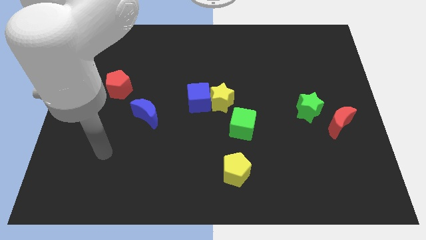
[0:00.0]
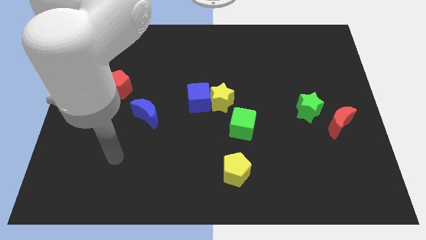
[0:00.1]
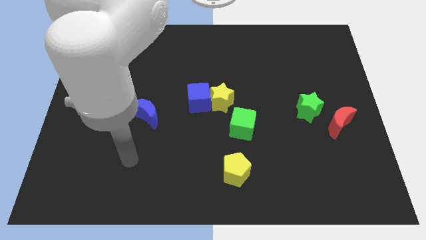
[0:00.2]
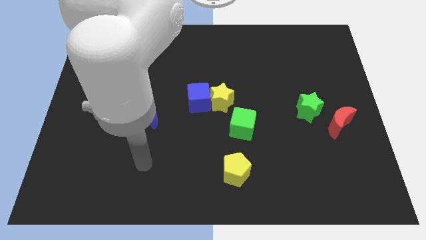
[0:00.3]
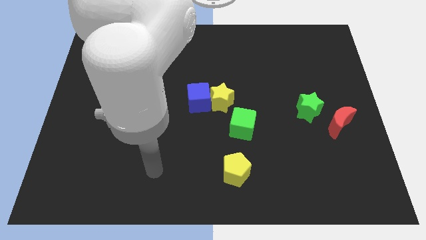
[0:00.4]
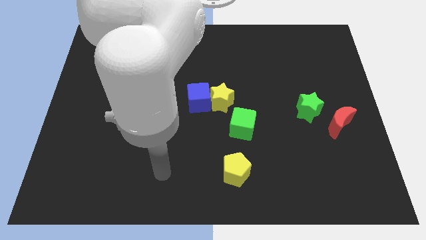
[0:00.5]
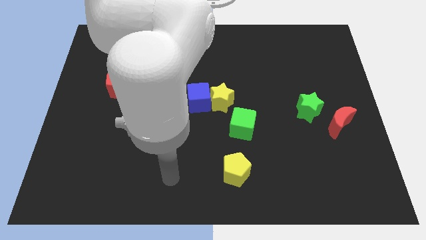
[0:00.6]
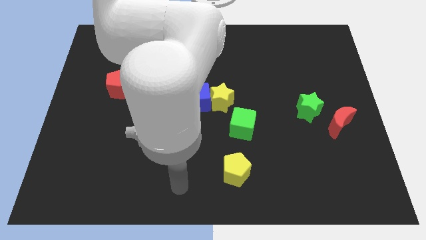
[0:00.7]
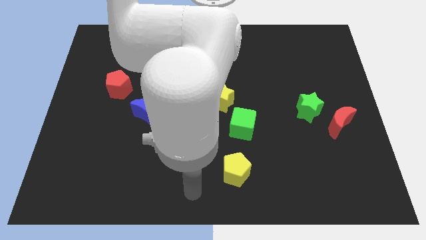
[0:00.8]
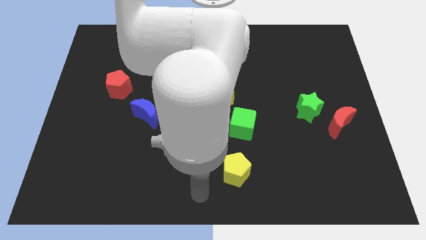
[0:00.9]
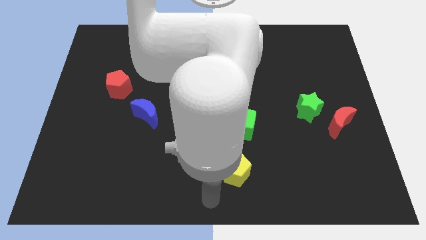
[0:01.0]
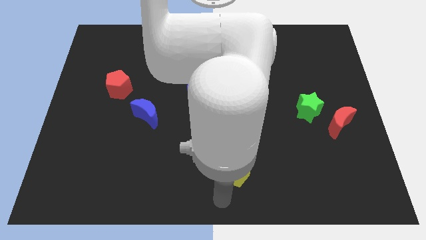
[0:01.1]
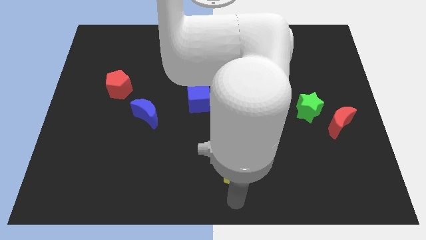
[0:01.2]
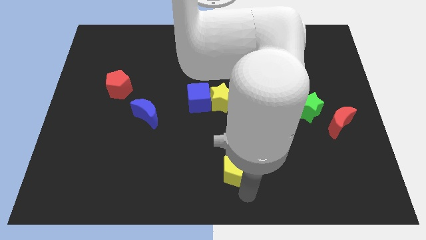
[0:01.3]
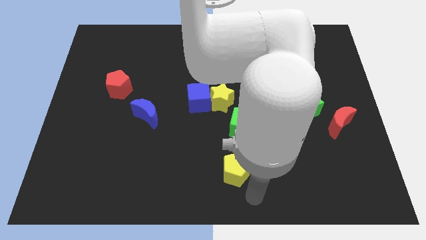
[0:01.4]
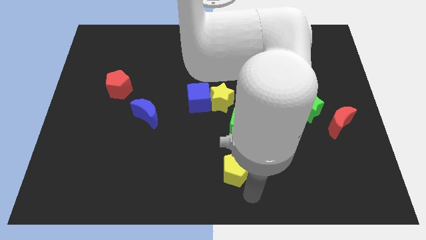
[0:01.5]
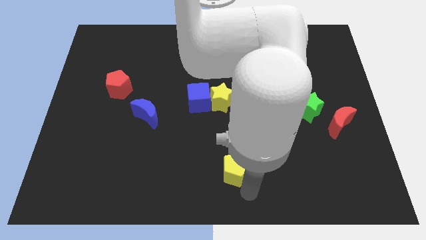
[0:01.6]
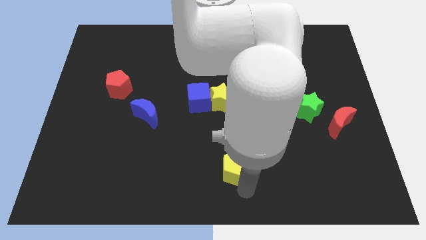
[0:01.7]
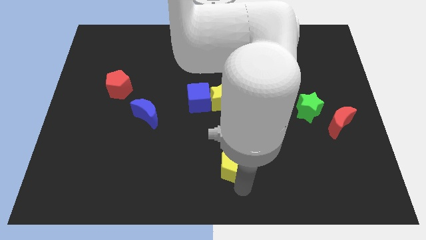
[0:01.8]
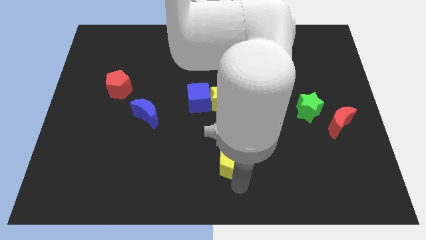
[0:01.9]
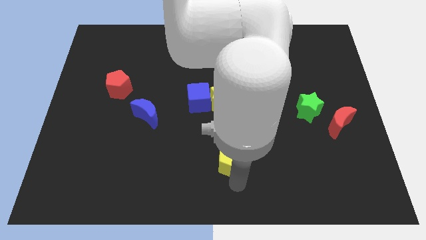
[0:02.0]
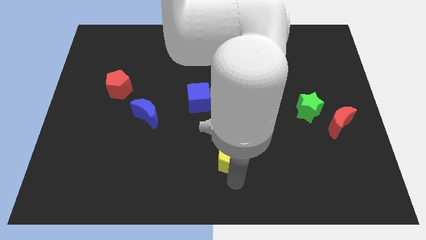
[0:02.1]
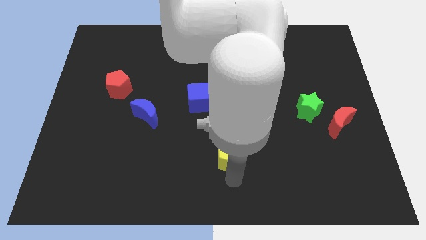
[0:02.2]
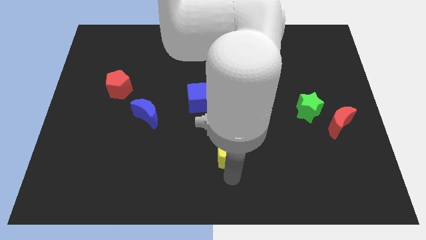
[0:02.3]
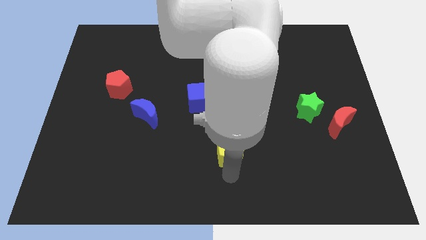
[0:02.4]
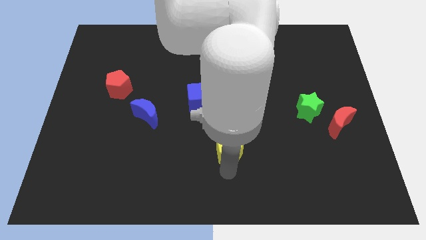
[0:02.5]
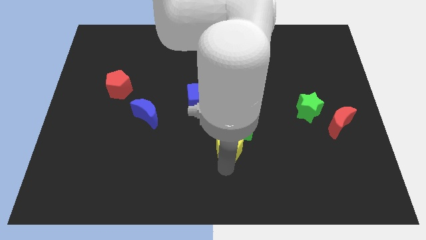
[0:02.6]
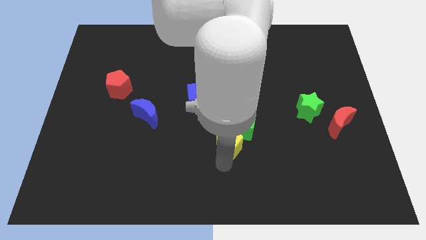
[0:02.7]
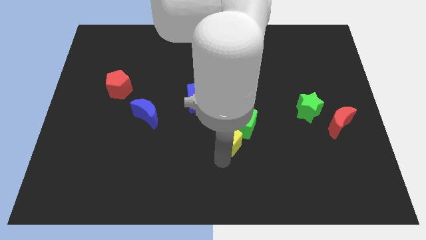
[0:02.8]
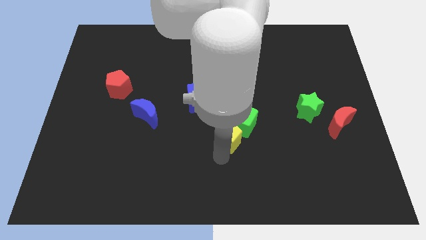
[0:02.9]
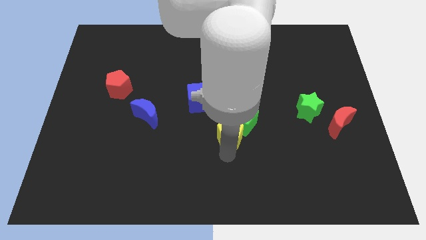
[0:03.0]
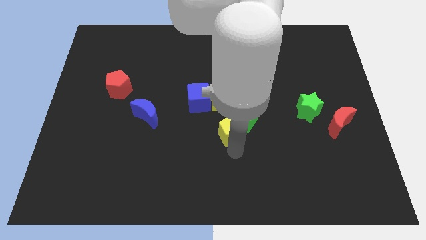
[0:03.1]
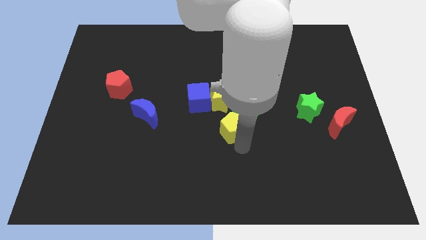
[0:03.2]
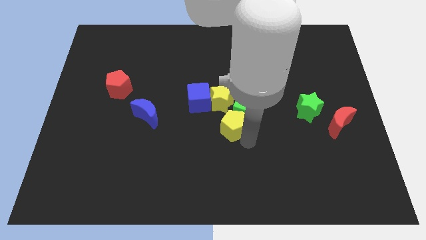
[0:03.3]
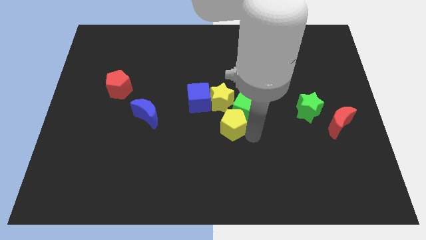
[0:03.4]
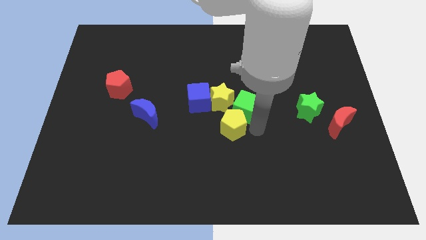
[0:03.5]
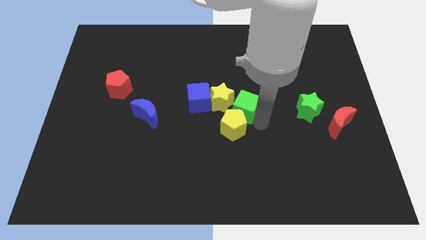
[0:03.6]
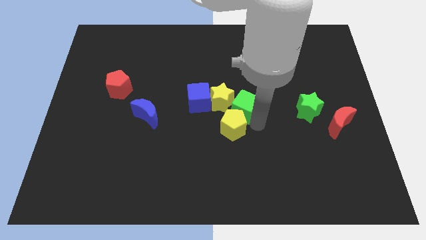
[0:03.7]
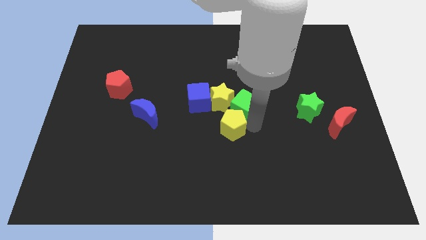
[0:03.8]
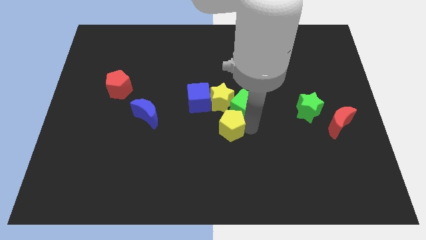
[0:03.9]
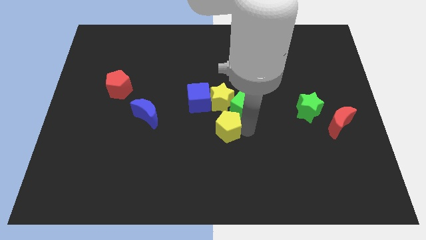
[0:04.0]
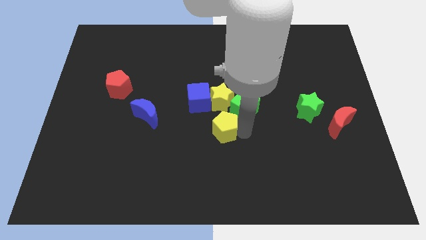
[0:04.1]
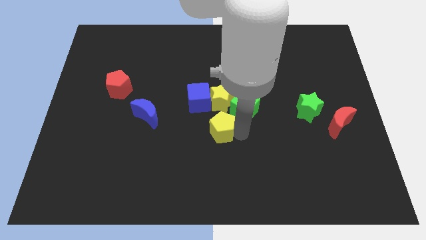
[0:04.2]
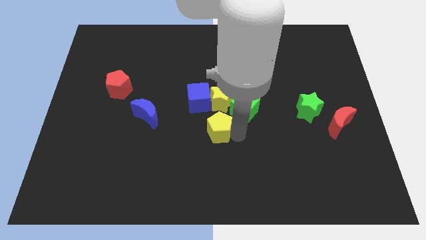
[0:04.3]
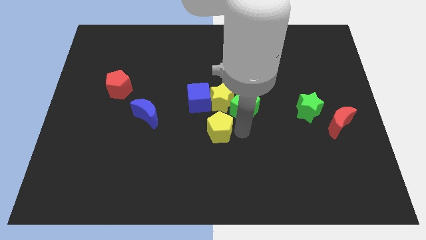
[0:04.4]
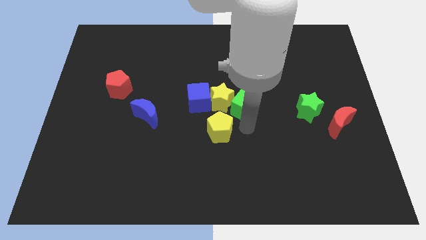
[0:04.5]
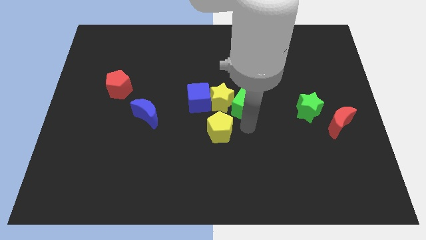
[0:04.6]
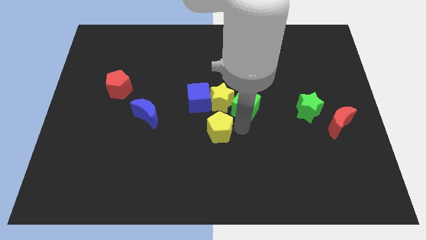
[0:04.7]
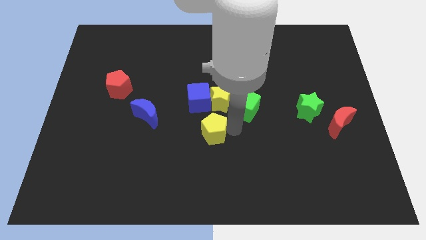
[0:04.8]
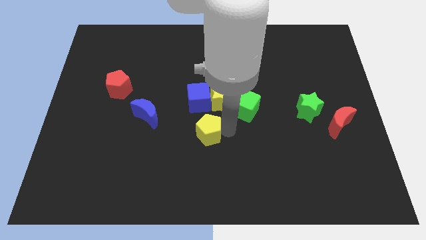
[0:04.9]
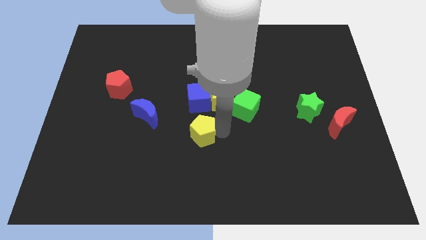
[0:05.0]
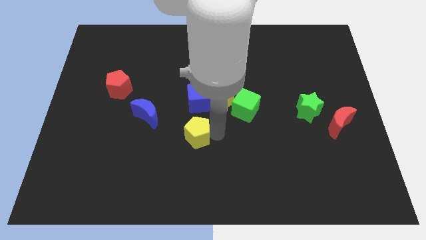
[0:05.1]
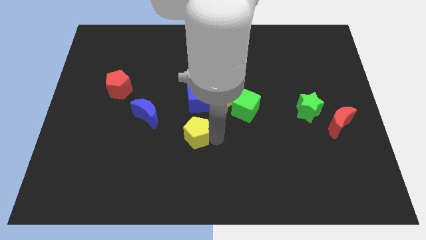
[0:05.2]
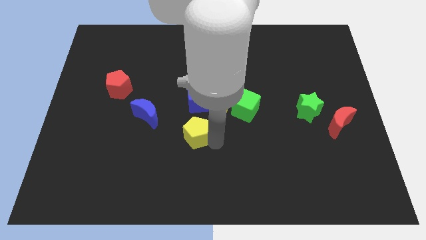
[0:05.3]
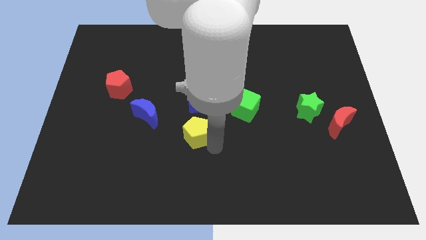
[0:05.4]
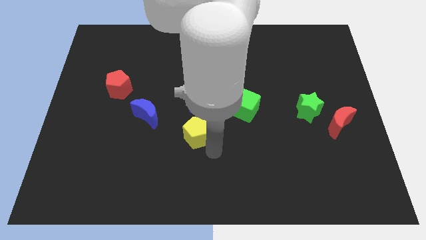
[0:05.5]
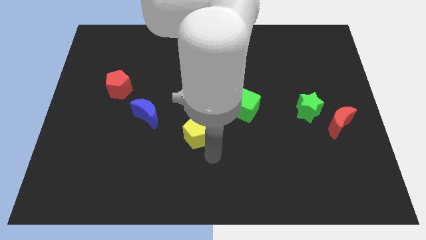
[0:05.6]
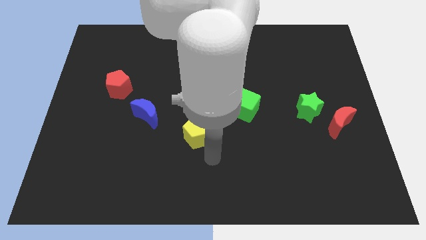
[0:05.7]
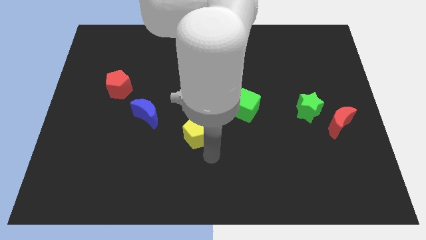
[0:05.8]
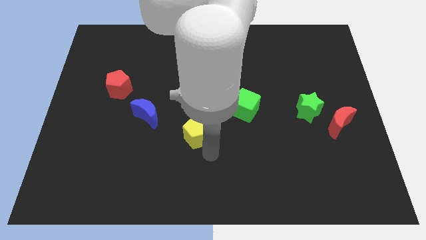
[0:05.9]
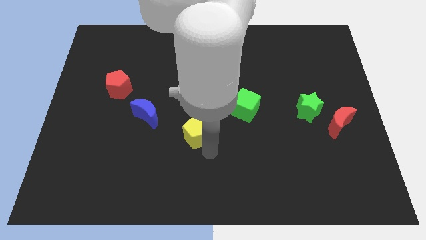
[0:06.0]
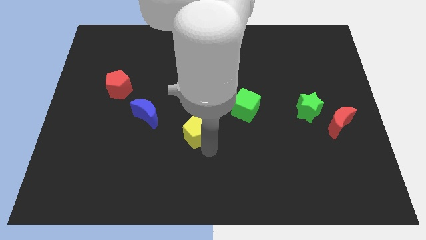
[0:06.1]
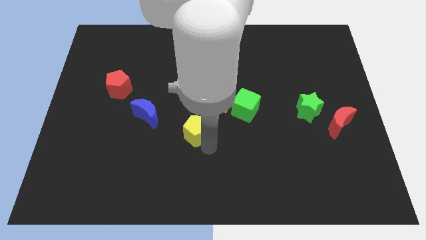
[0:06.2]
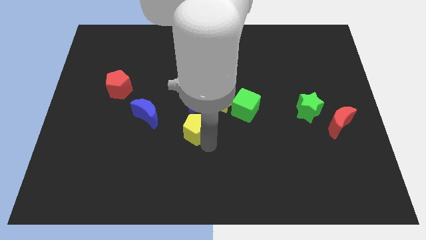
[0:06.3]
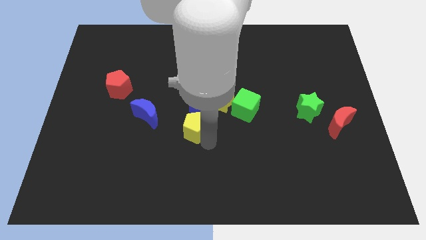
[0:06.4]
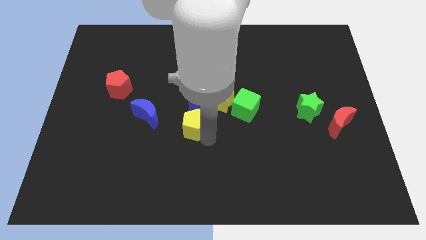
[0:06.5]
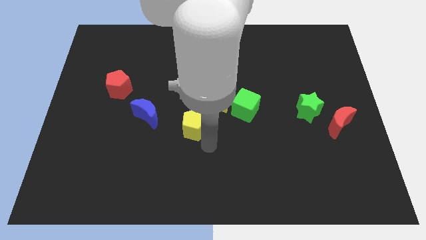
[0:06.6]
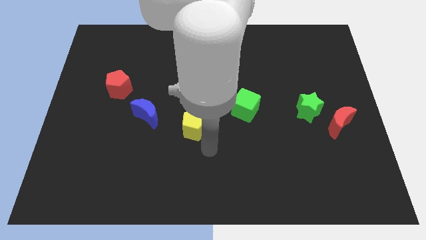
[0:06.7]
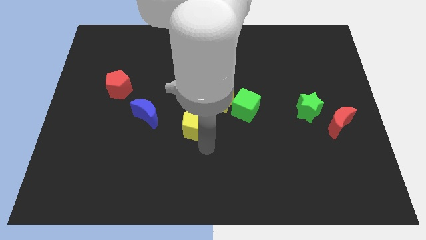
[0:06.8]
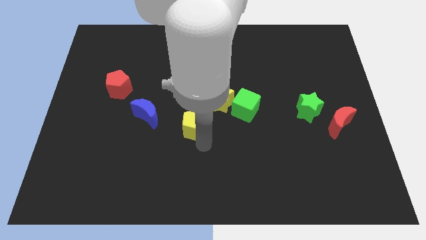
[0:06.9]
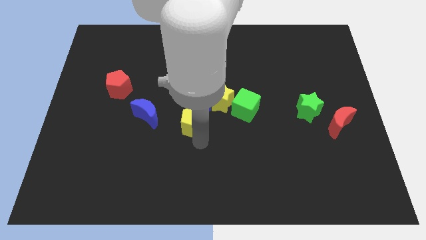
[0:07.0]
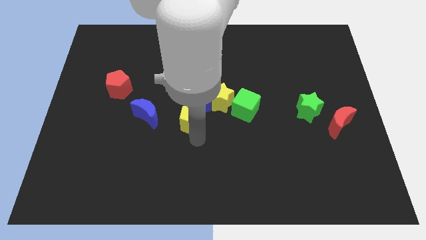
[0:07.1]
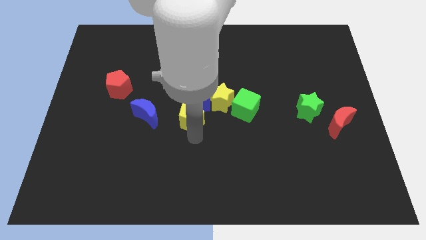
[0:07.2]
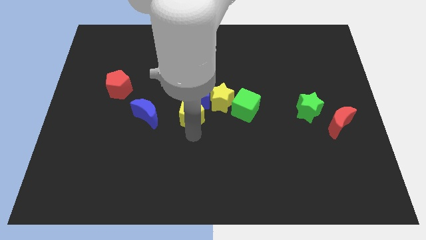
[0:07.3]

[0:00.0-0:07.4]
put the yellow pentagon to the left side of the yellow star

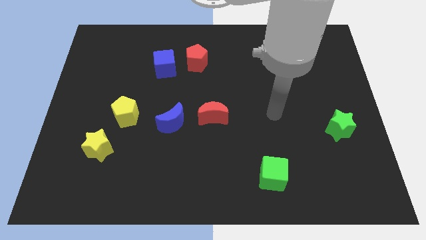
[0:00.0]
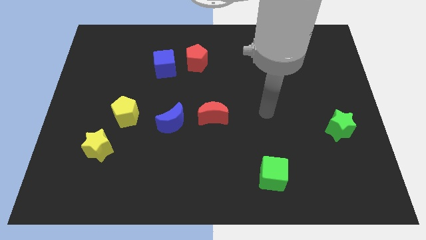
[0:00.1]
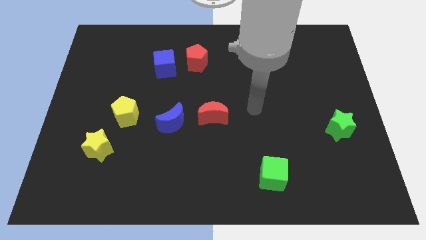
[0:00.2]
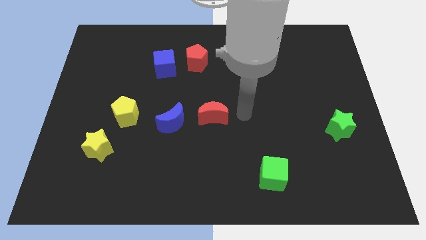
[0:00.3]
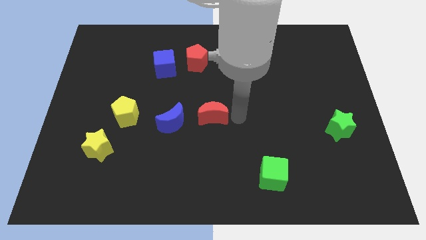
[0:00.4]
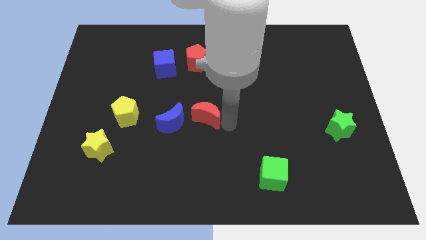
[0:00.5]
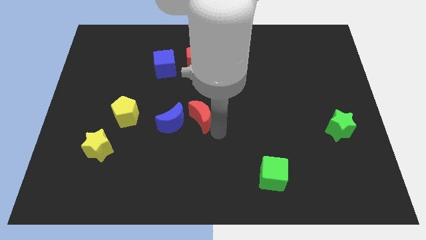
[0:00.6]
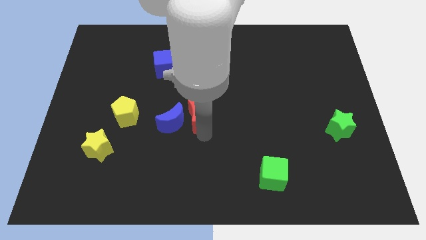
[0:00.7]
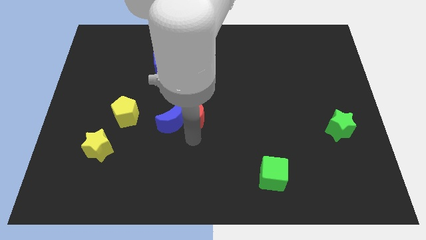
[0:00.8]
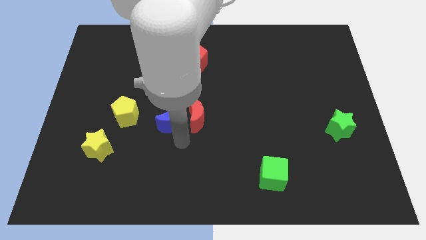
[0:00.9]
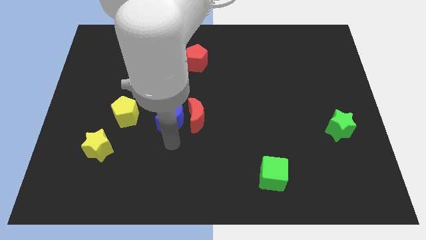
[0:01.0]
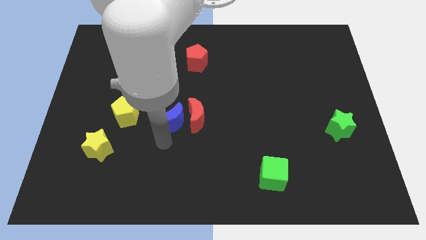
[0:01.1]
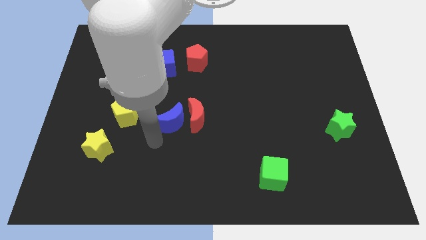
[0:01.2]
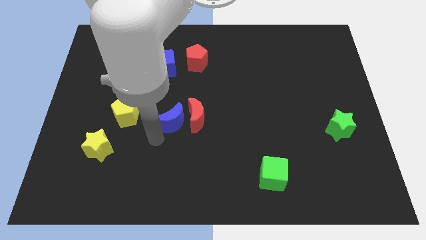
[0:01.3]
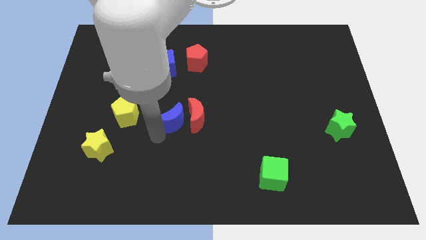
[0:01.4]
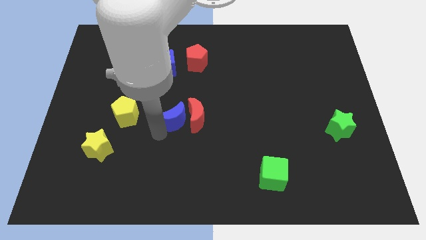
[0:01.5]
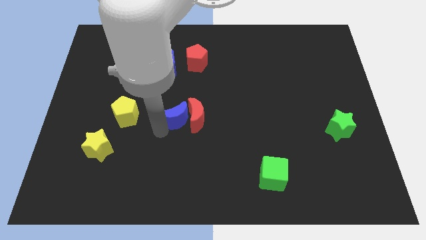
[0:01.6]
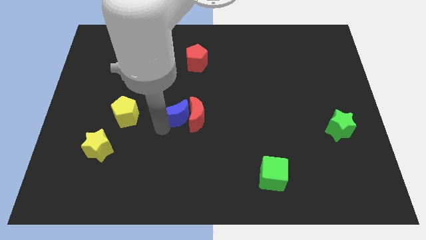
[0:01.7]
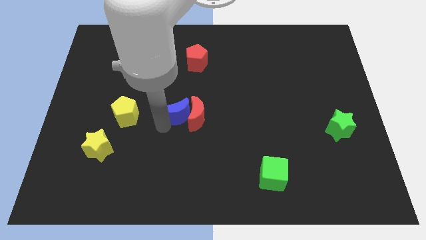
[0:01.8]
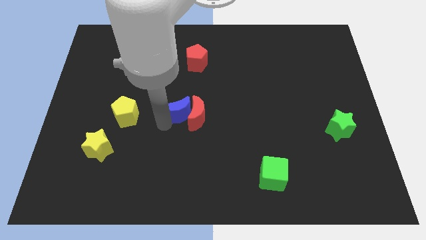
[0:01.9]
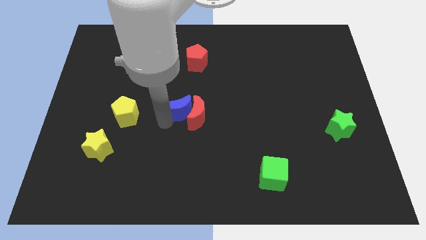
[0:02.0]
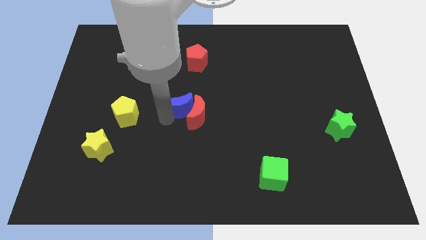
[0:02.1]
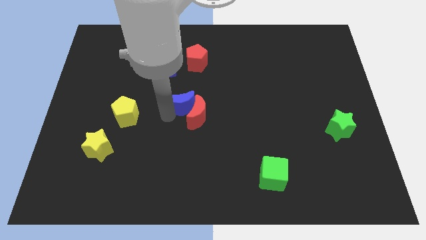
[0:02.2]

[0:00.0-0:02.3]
put the blue moon to the top side of the red moon
